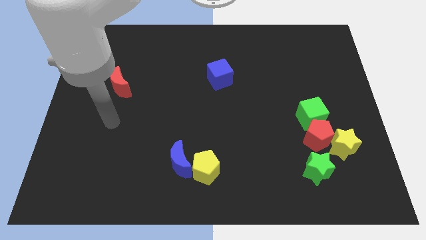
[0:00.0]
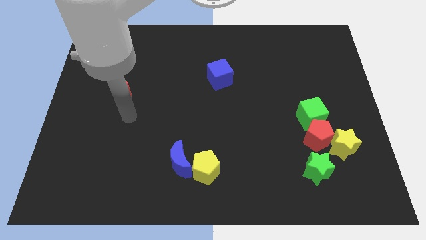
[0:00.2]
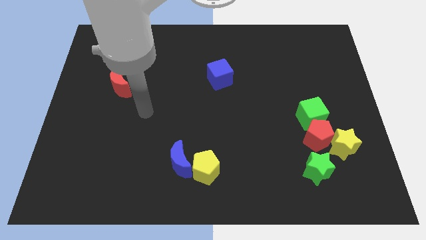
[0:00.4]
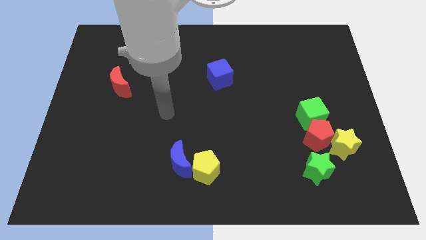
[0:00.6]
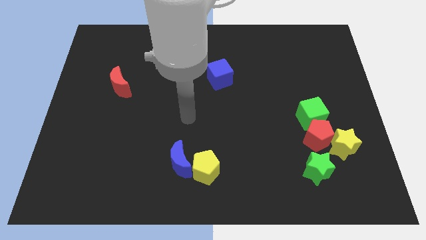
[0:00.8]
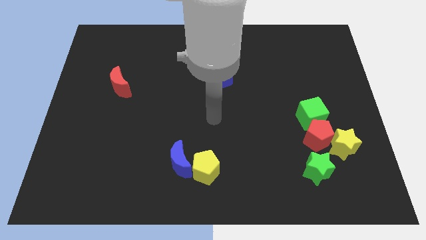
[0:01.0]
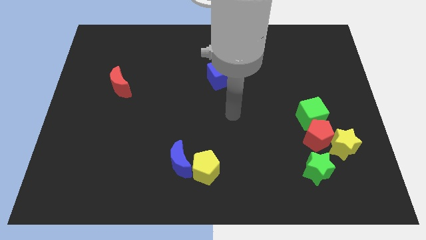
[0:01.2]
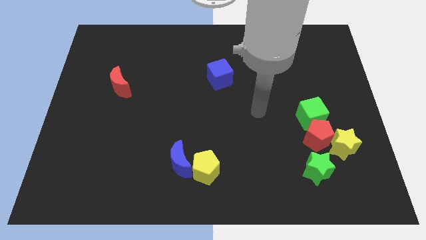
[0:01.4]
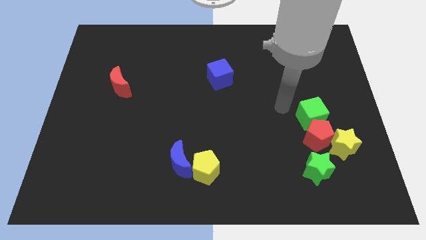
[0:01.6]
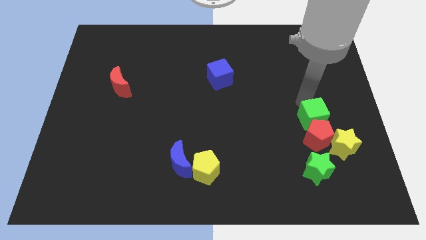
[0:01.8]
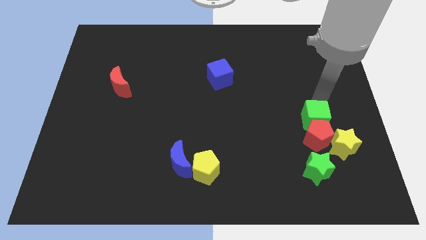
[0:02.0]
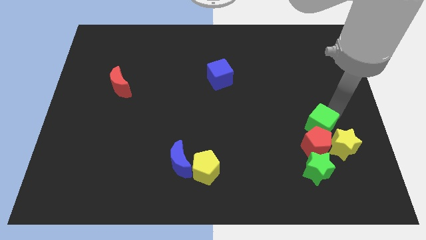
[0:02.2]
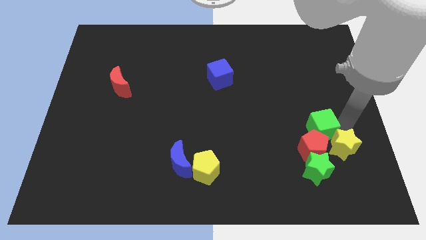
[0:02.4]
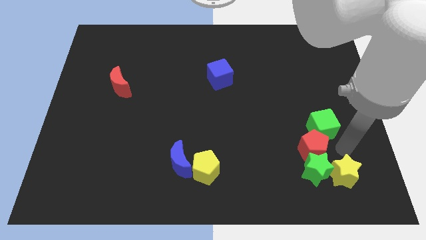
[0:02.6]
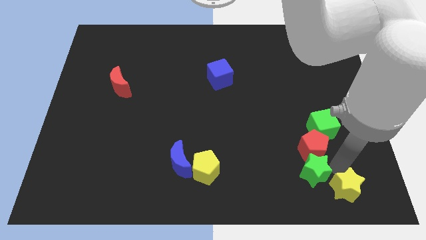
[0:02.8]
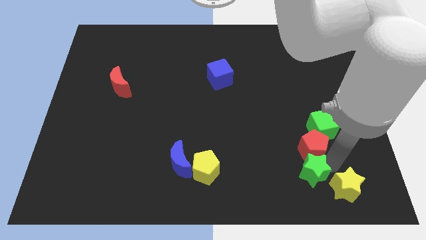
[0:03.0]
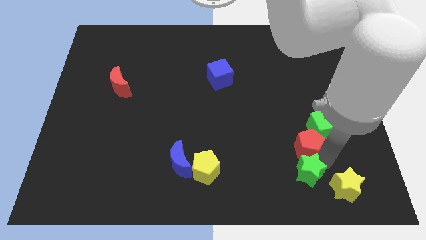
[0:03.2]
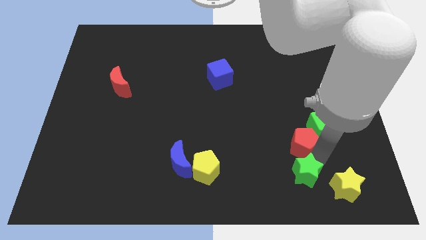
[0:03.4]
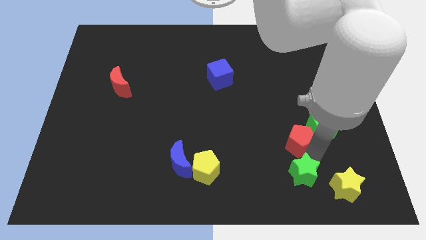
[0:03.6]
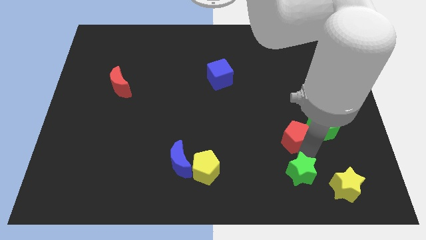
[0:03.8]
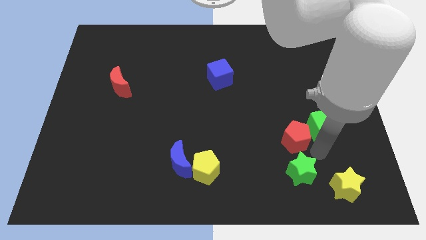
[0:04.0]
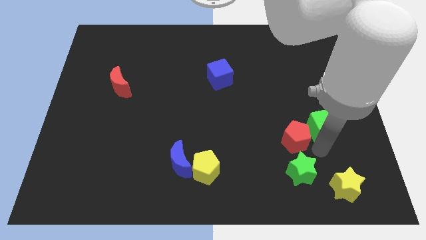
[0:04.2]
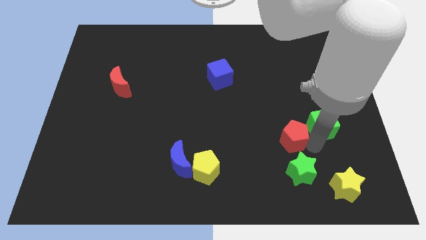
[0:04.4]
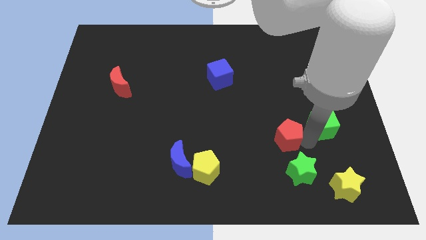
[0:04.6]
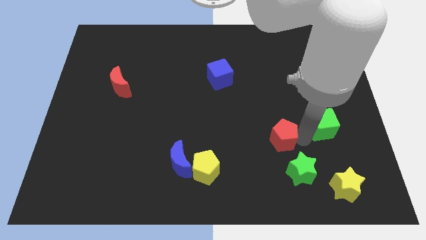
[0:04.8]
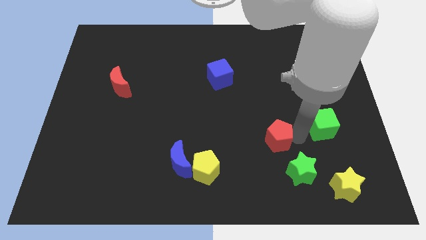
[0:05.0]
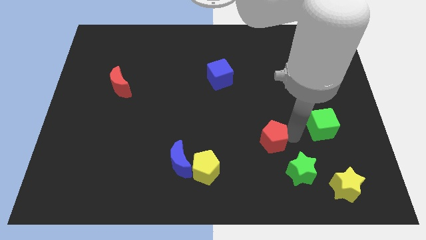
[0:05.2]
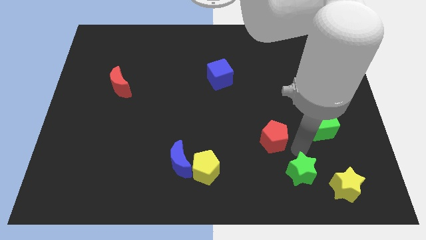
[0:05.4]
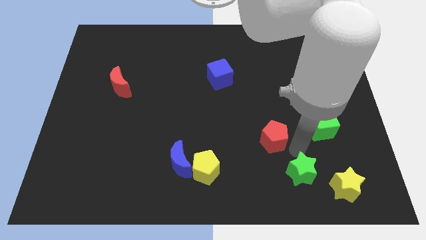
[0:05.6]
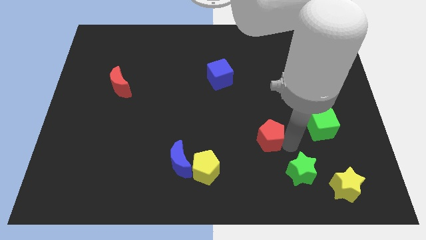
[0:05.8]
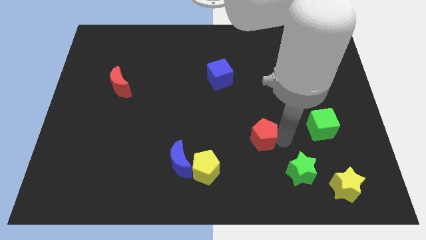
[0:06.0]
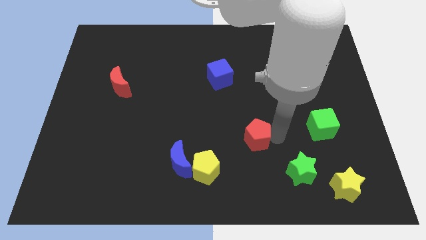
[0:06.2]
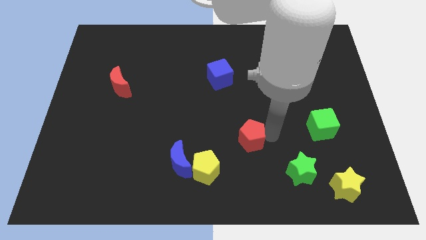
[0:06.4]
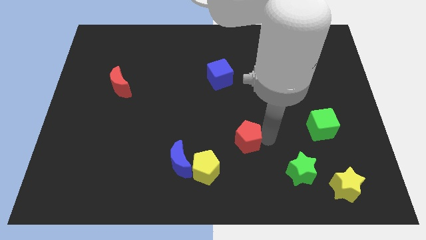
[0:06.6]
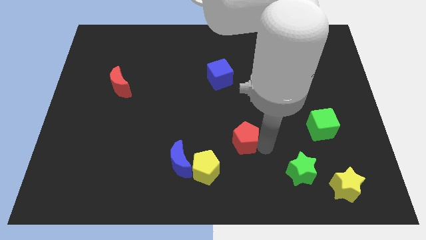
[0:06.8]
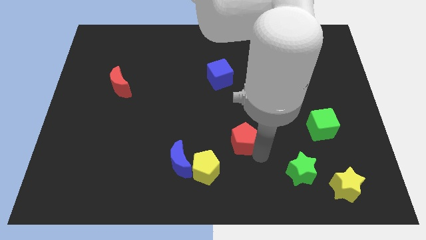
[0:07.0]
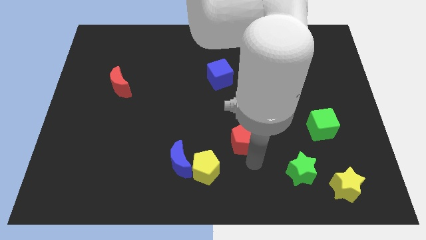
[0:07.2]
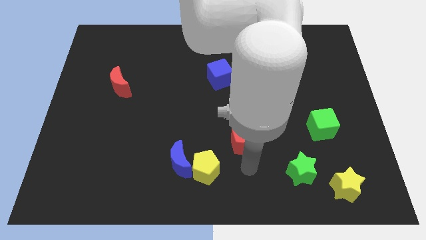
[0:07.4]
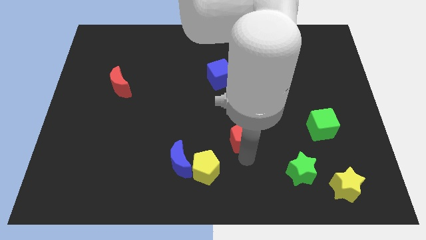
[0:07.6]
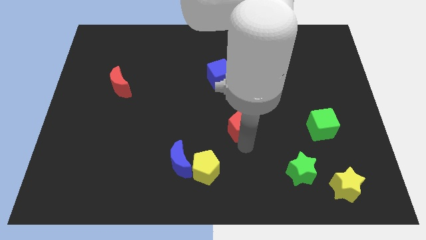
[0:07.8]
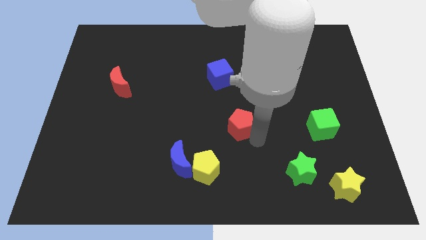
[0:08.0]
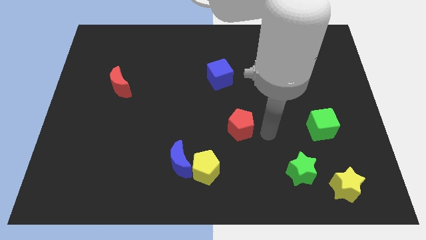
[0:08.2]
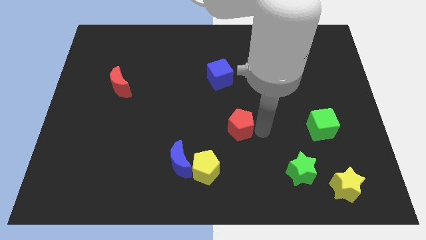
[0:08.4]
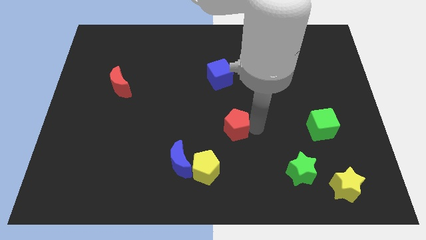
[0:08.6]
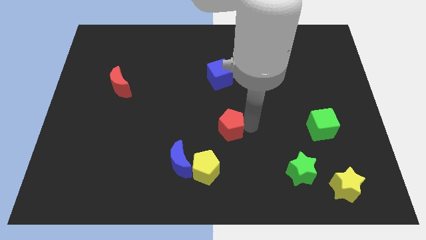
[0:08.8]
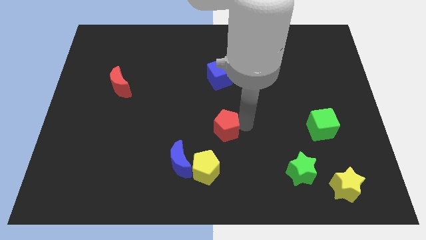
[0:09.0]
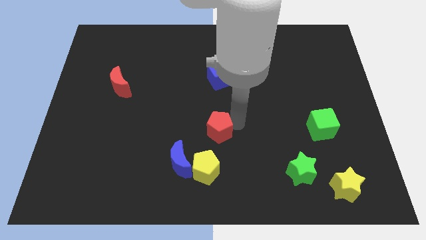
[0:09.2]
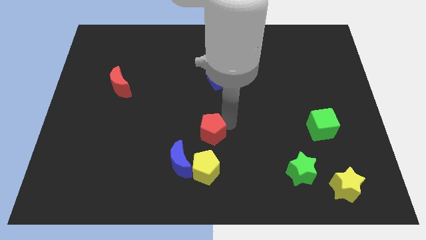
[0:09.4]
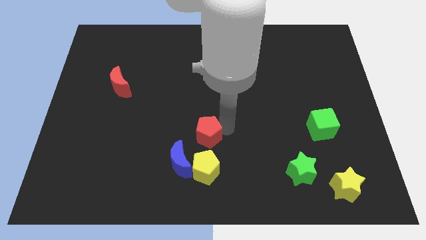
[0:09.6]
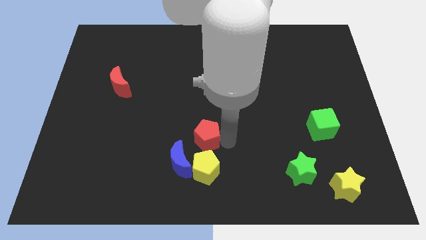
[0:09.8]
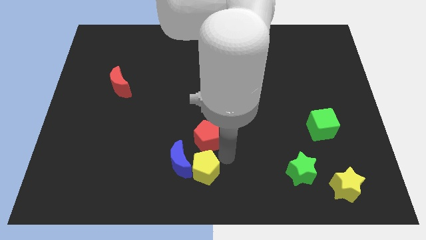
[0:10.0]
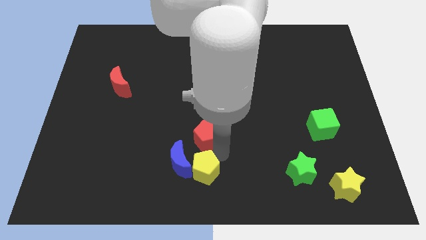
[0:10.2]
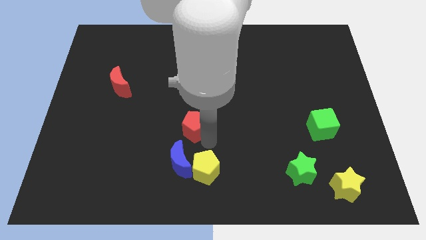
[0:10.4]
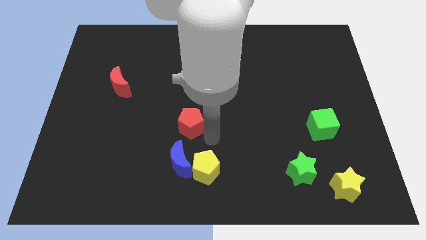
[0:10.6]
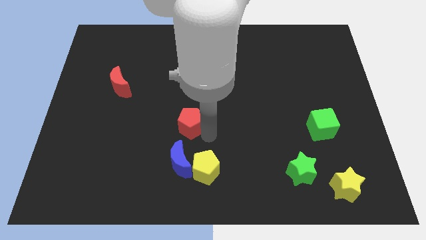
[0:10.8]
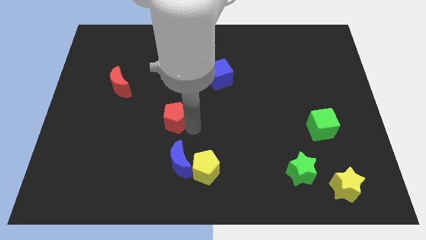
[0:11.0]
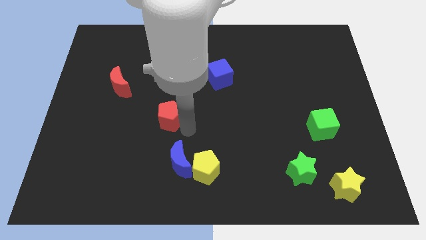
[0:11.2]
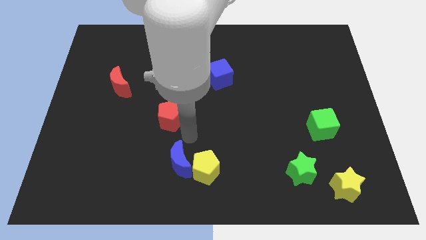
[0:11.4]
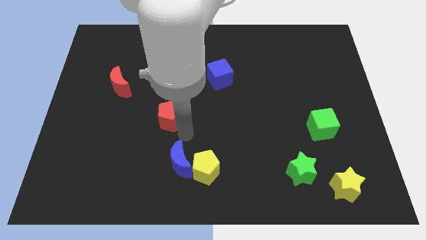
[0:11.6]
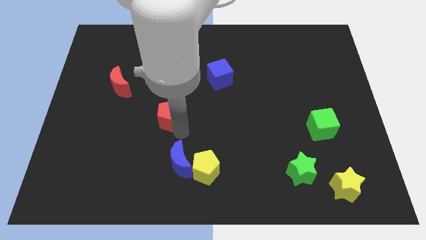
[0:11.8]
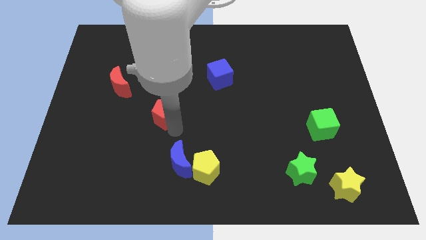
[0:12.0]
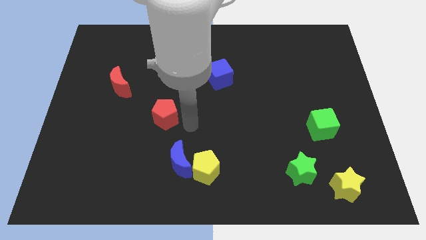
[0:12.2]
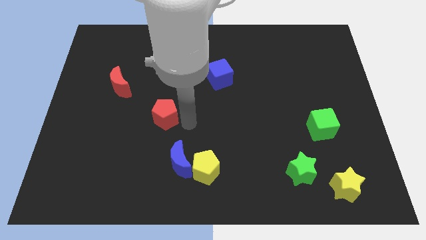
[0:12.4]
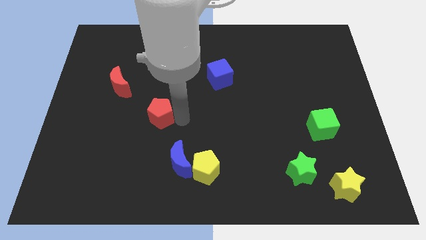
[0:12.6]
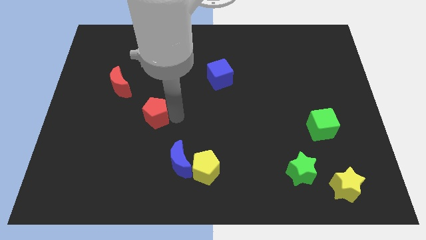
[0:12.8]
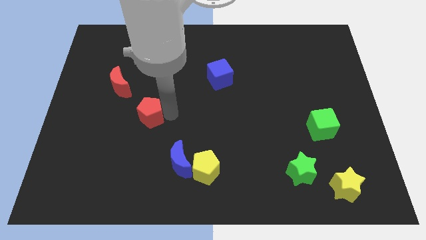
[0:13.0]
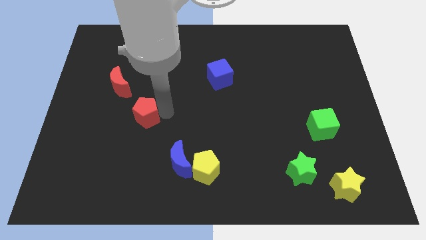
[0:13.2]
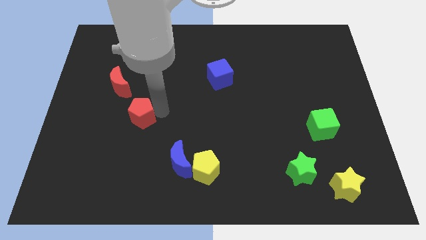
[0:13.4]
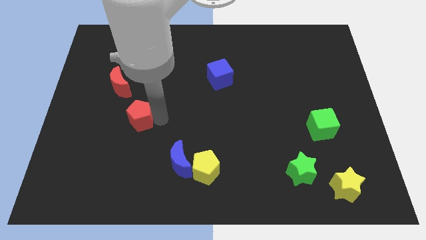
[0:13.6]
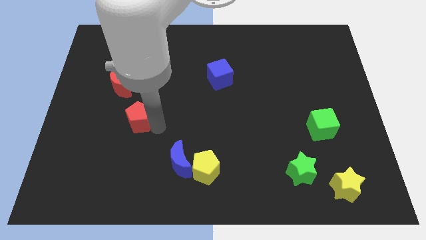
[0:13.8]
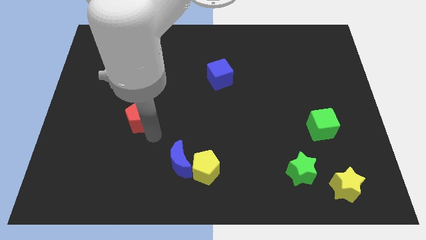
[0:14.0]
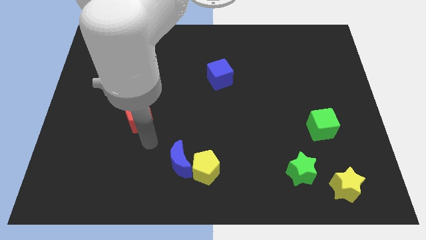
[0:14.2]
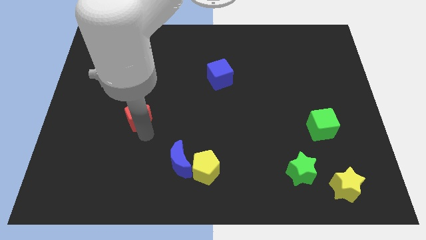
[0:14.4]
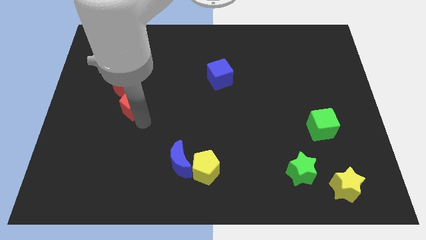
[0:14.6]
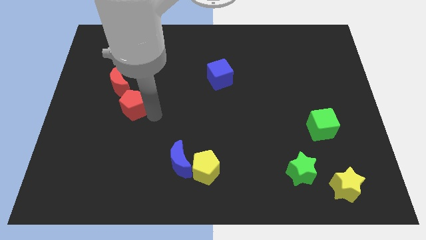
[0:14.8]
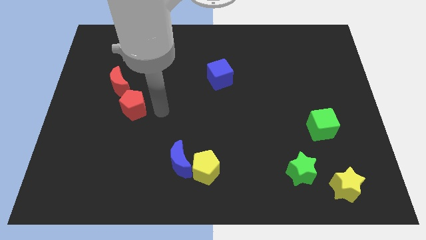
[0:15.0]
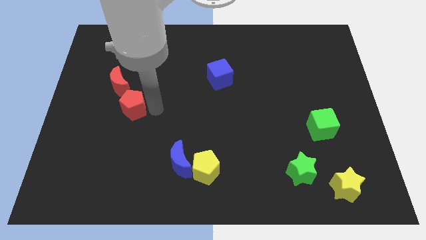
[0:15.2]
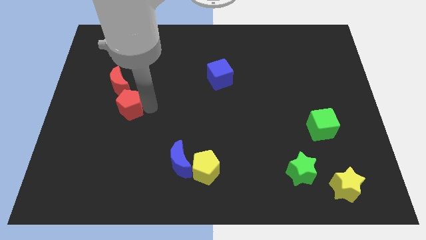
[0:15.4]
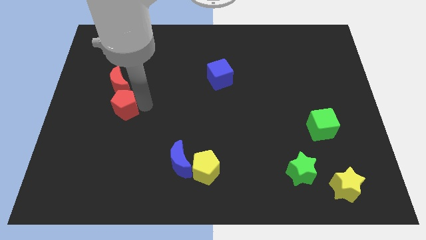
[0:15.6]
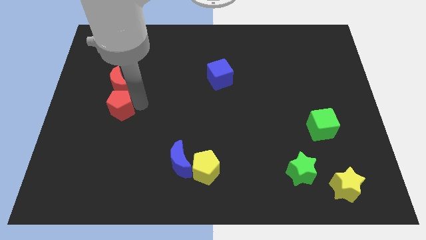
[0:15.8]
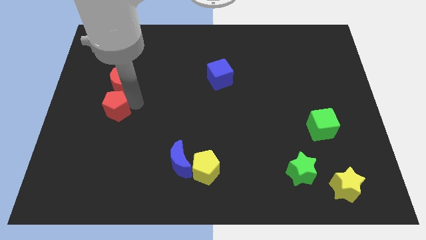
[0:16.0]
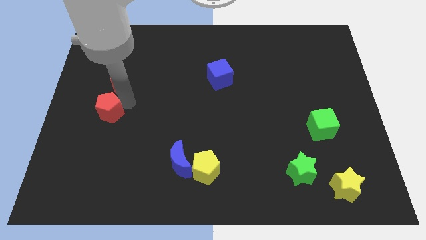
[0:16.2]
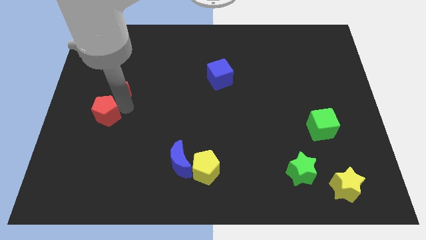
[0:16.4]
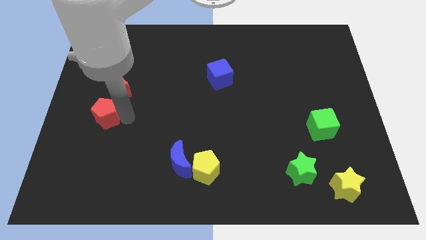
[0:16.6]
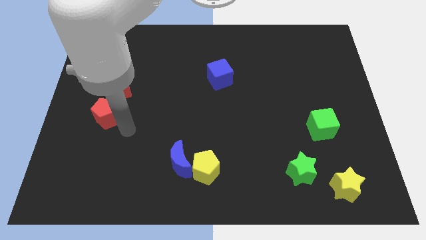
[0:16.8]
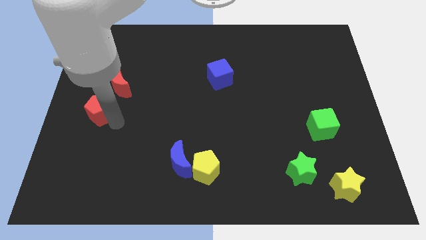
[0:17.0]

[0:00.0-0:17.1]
slide the red pentagon to the center left
